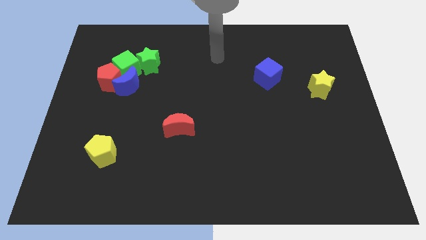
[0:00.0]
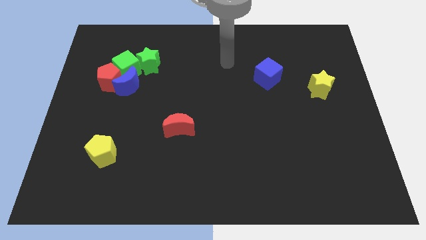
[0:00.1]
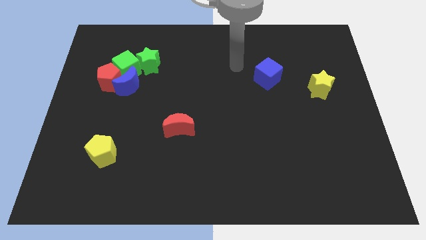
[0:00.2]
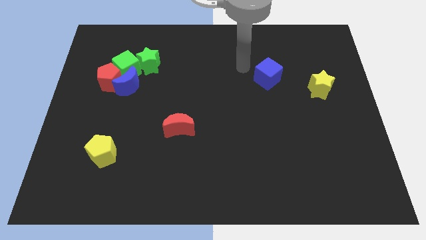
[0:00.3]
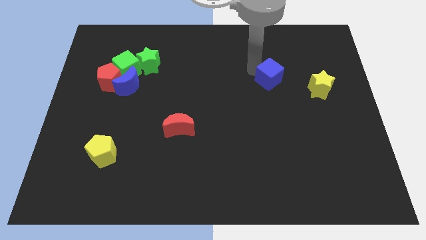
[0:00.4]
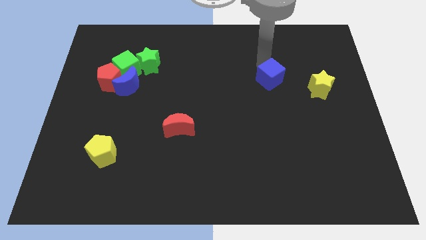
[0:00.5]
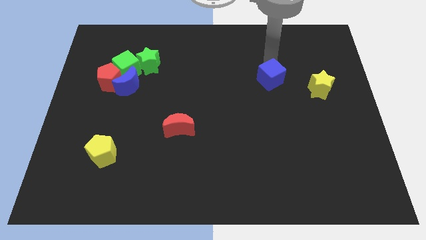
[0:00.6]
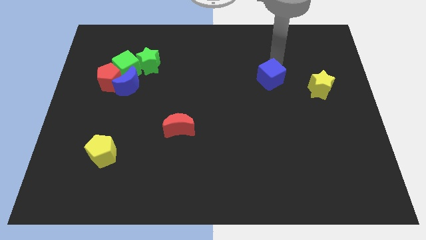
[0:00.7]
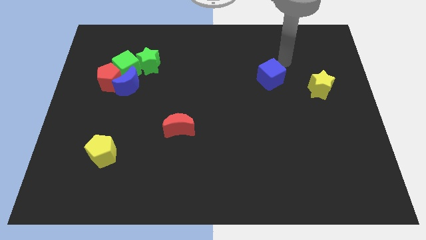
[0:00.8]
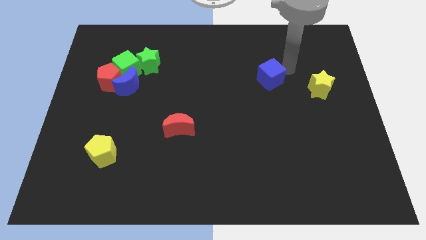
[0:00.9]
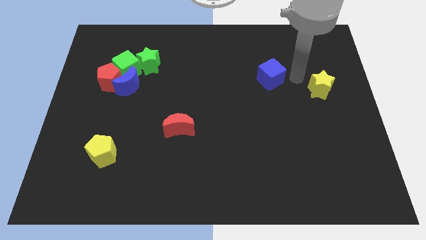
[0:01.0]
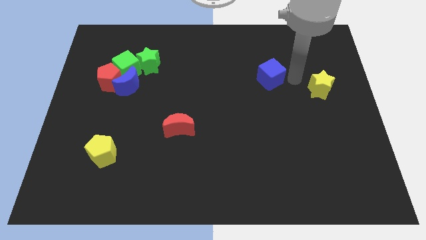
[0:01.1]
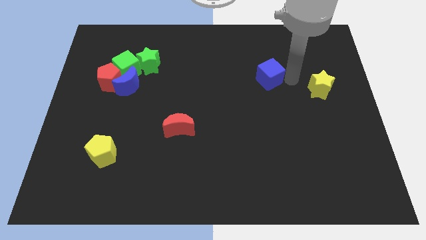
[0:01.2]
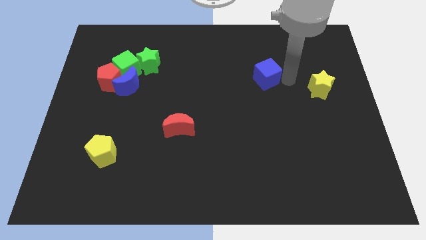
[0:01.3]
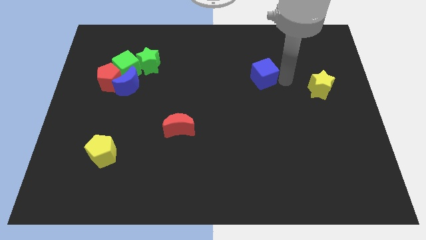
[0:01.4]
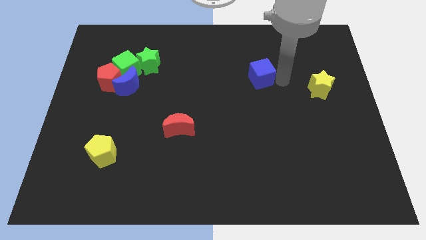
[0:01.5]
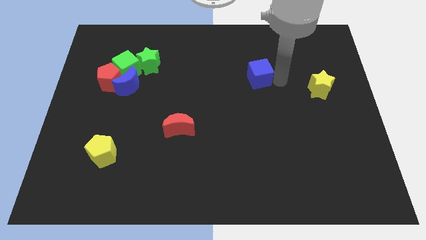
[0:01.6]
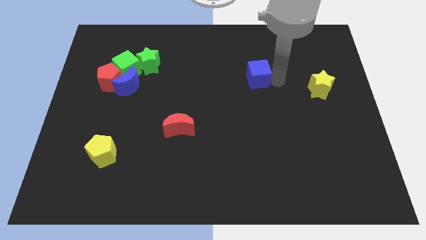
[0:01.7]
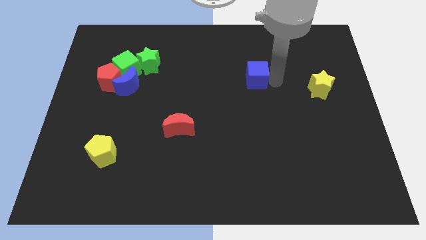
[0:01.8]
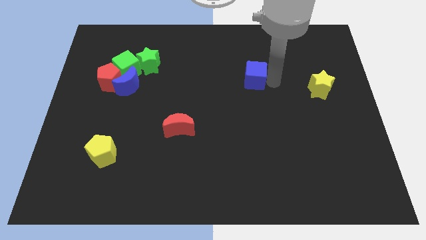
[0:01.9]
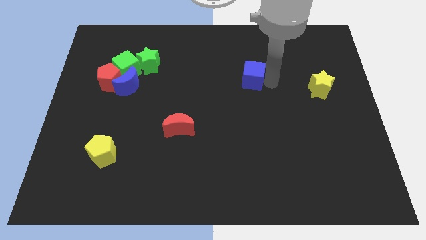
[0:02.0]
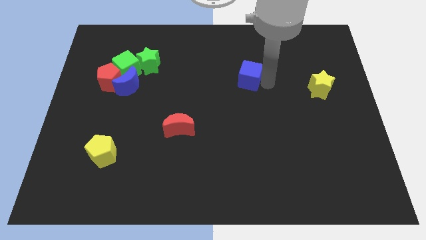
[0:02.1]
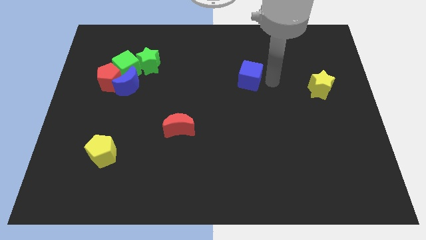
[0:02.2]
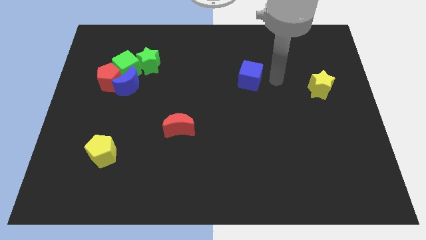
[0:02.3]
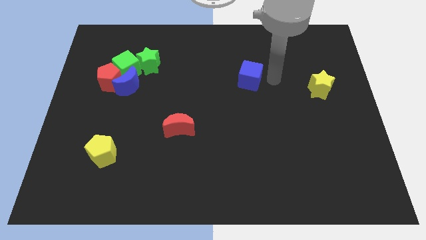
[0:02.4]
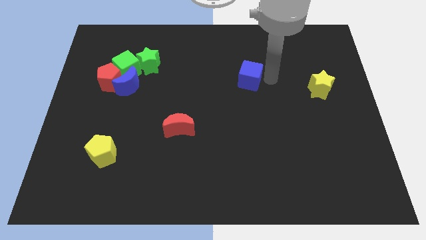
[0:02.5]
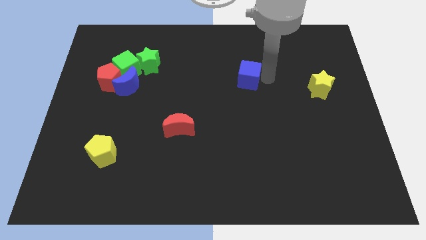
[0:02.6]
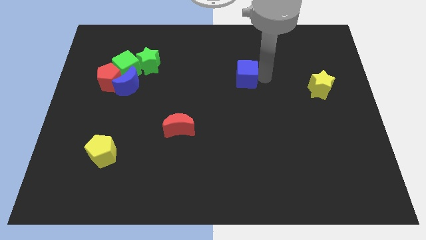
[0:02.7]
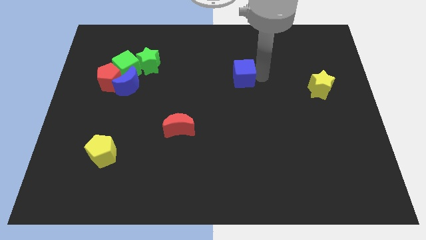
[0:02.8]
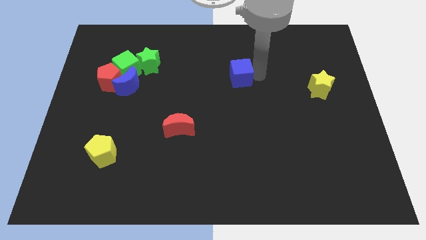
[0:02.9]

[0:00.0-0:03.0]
push the blue cube a little bit to the left

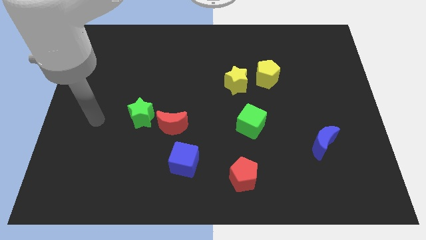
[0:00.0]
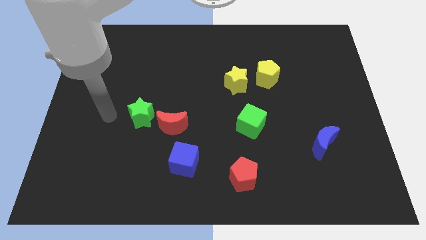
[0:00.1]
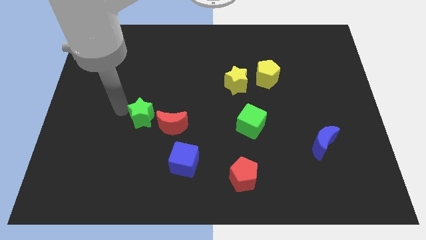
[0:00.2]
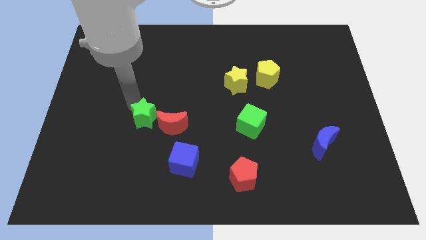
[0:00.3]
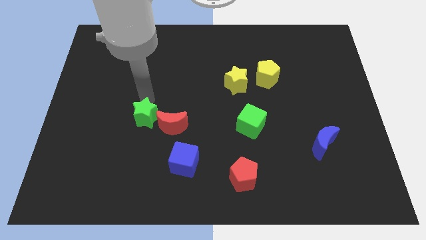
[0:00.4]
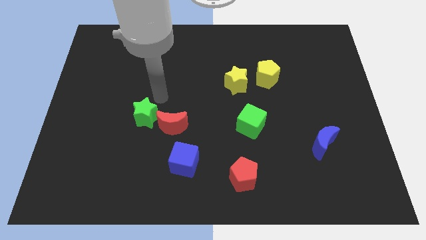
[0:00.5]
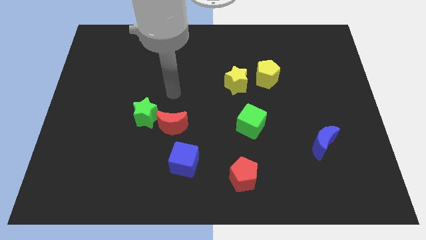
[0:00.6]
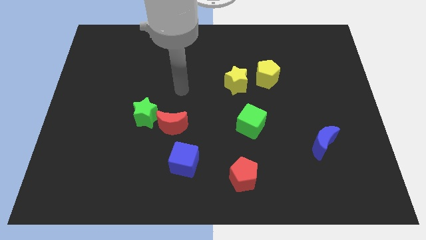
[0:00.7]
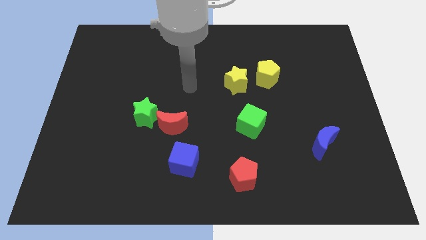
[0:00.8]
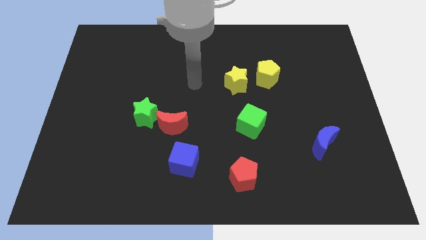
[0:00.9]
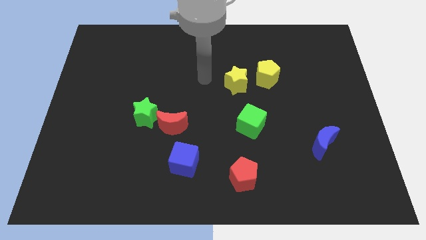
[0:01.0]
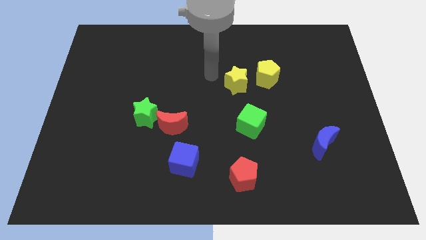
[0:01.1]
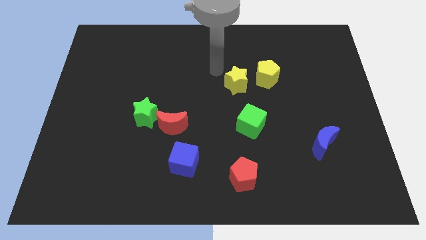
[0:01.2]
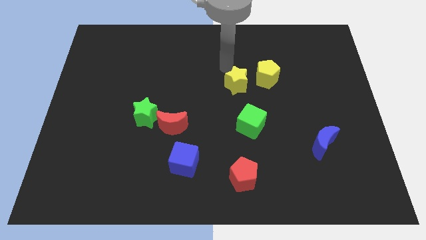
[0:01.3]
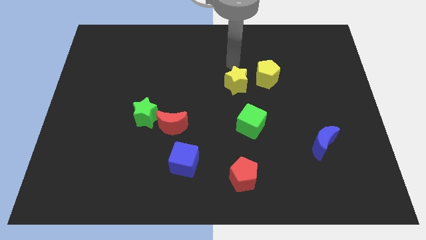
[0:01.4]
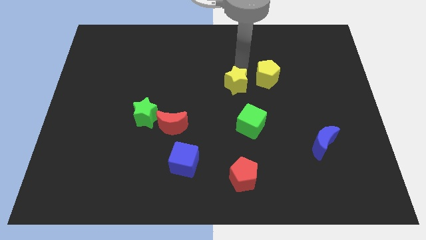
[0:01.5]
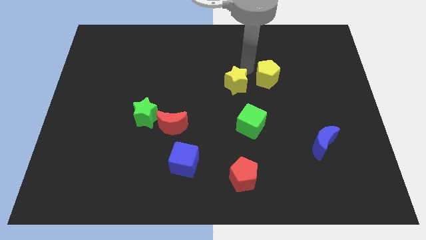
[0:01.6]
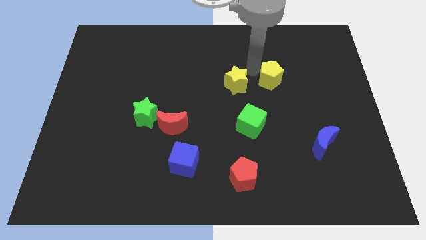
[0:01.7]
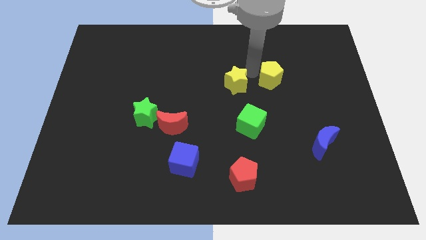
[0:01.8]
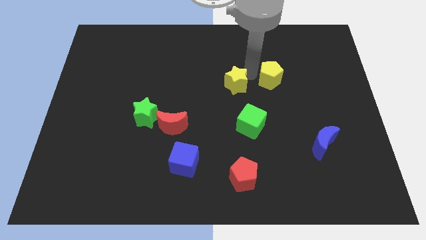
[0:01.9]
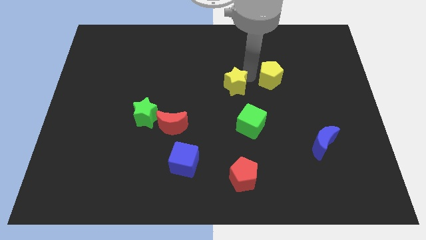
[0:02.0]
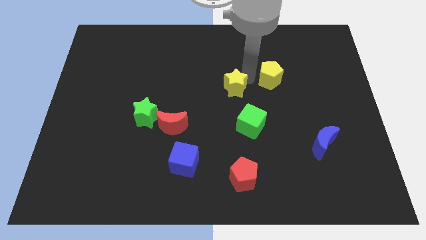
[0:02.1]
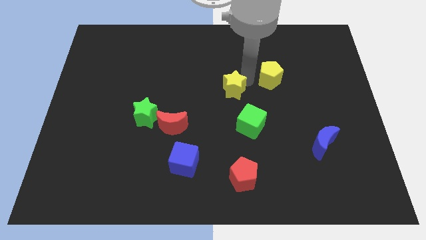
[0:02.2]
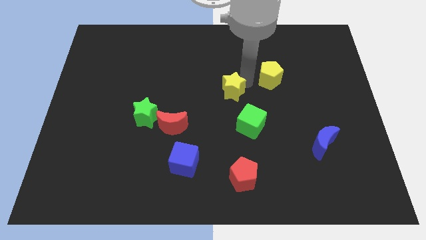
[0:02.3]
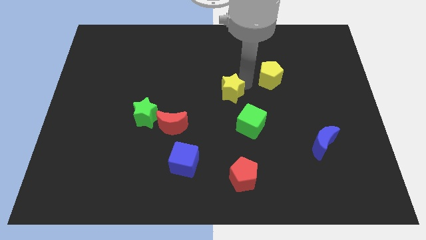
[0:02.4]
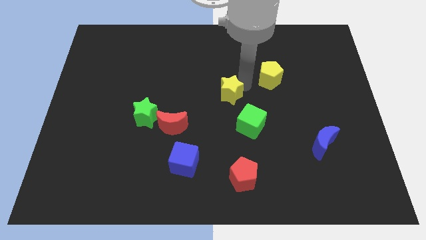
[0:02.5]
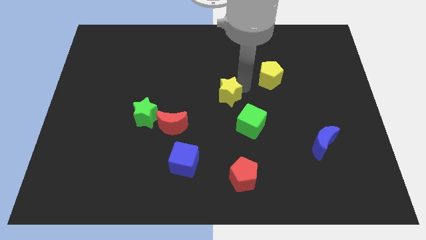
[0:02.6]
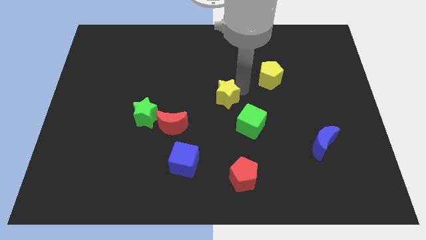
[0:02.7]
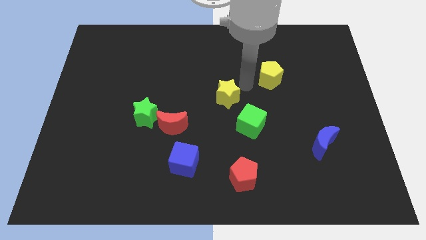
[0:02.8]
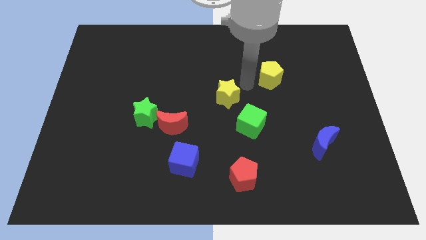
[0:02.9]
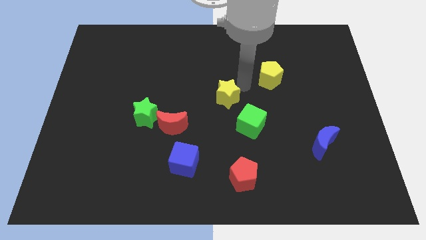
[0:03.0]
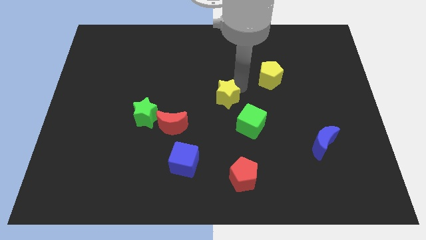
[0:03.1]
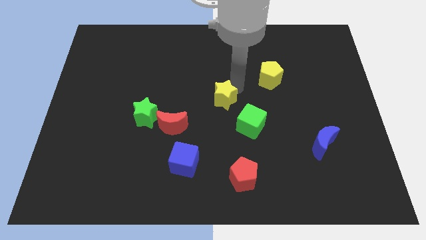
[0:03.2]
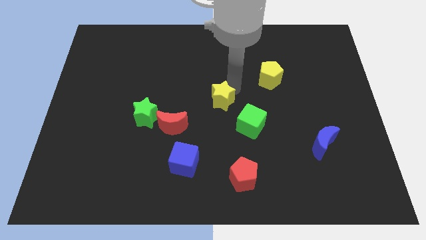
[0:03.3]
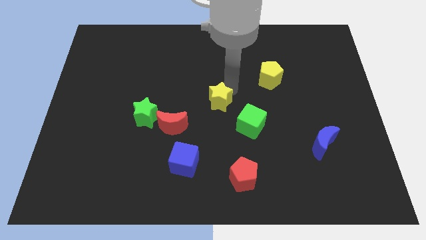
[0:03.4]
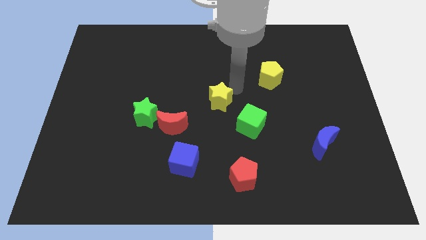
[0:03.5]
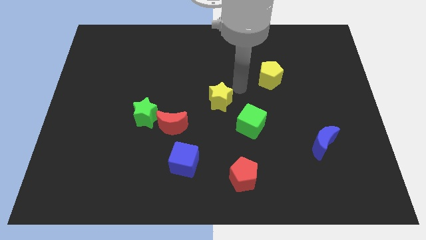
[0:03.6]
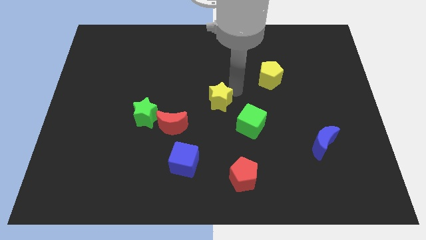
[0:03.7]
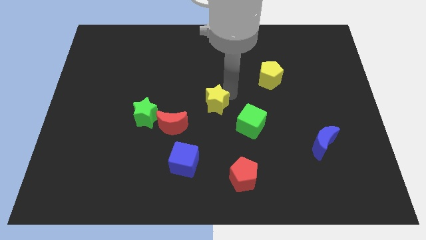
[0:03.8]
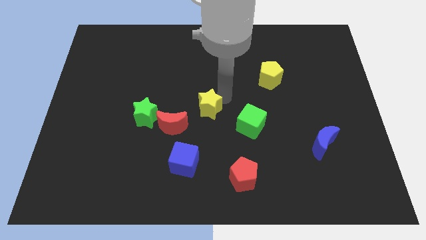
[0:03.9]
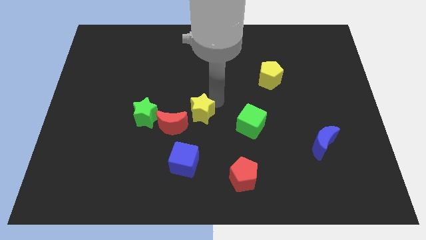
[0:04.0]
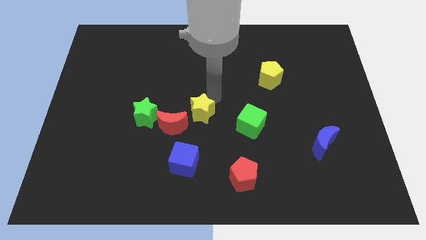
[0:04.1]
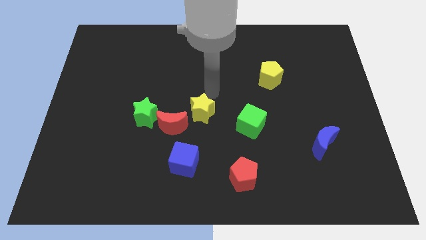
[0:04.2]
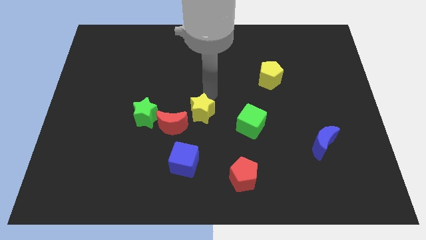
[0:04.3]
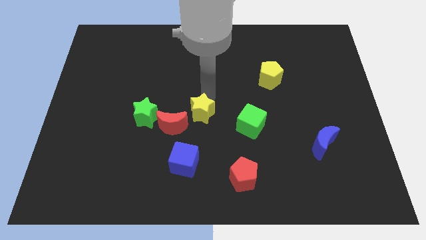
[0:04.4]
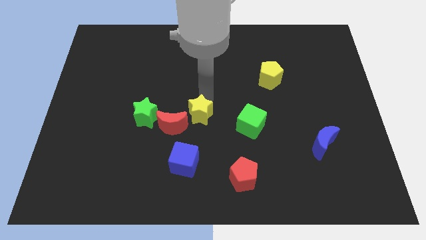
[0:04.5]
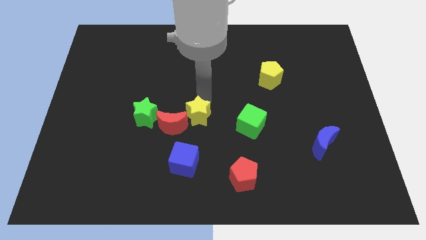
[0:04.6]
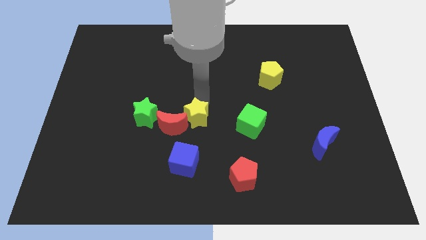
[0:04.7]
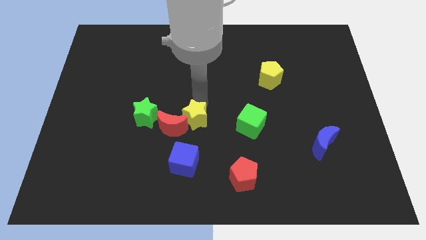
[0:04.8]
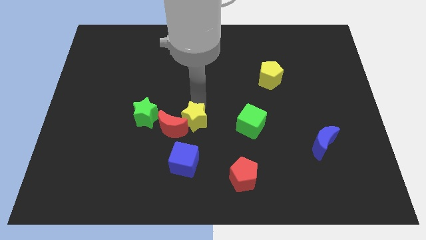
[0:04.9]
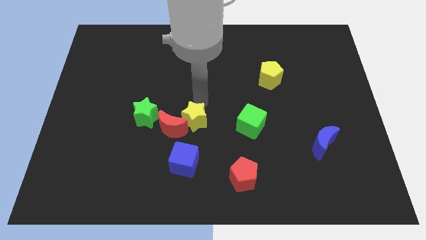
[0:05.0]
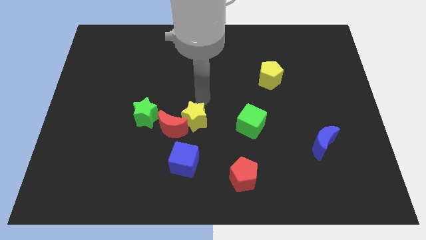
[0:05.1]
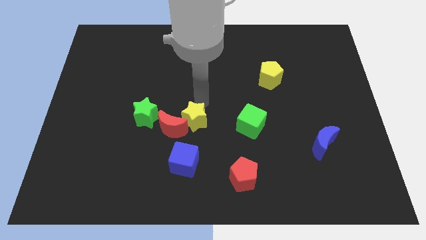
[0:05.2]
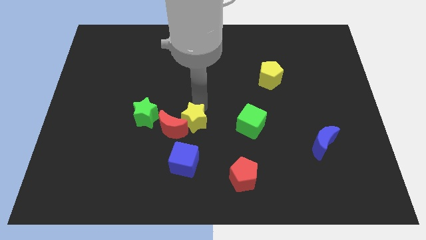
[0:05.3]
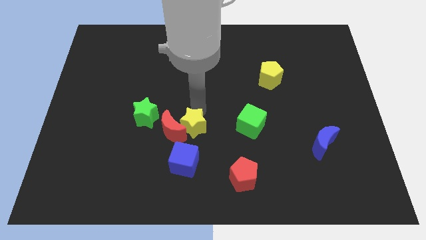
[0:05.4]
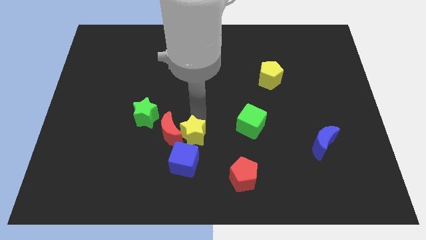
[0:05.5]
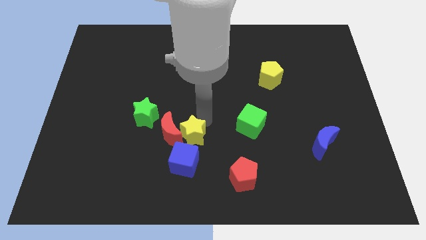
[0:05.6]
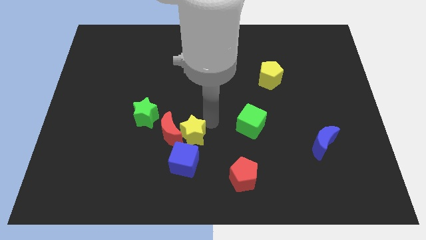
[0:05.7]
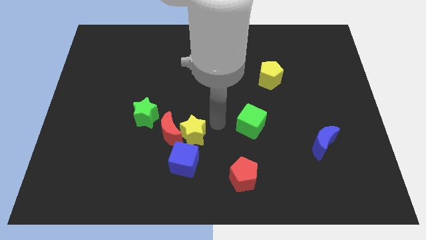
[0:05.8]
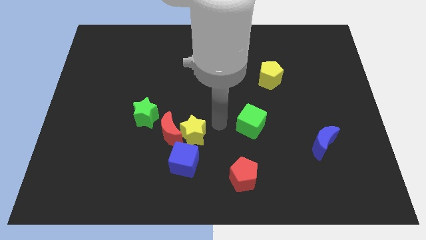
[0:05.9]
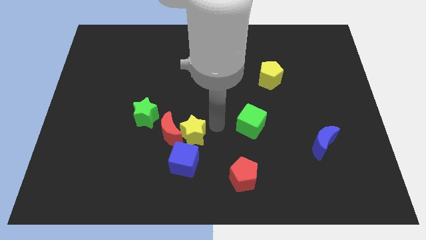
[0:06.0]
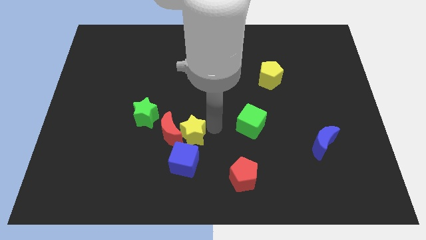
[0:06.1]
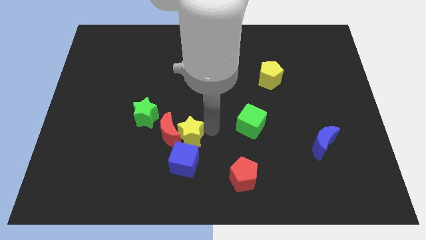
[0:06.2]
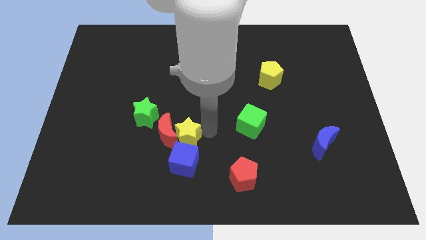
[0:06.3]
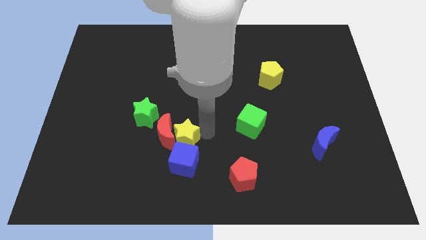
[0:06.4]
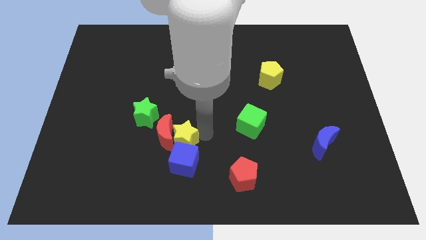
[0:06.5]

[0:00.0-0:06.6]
push the yellow star downwards and left
